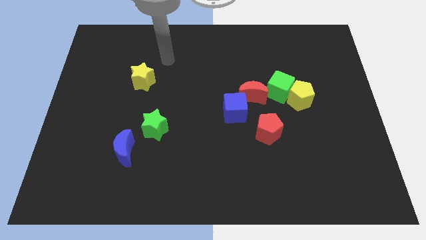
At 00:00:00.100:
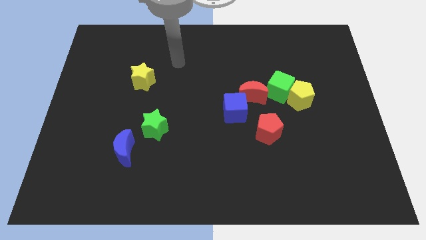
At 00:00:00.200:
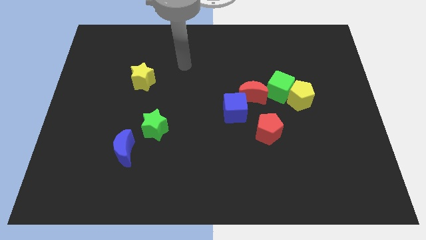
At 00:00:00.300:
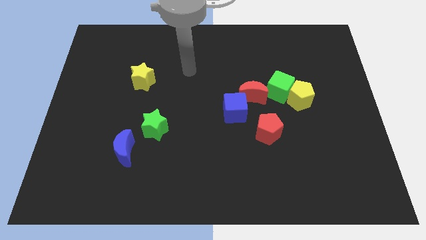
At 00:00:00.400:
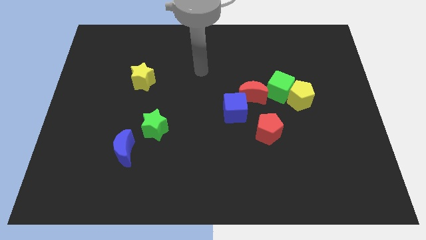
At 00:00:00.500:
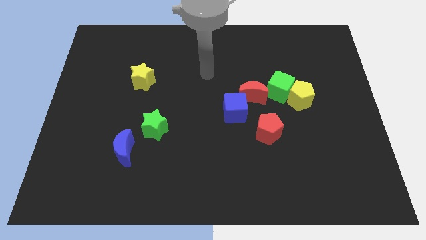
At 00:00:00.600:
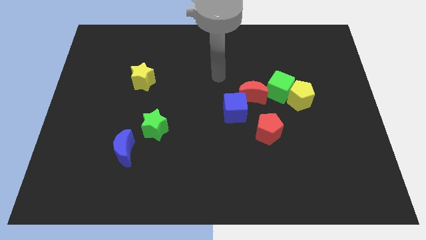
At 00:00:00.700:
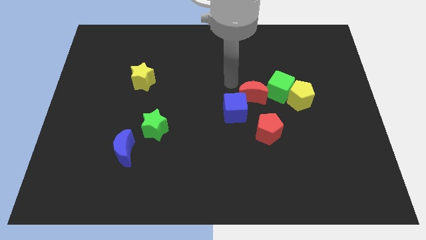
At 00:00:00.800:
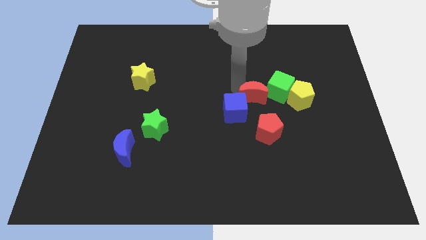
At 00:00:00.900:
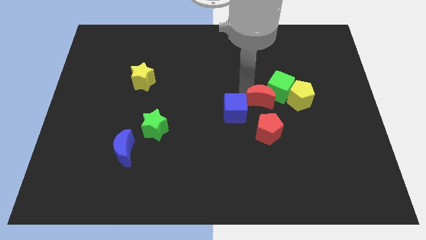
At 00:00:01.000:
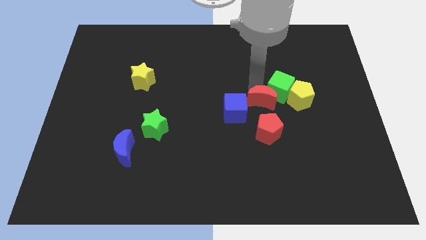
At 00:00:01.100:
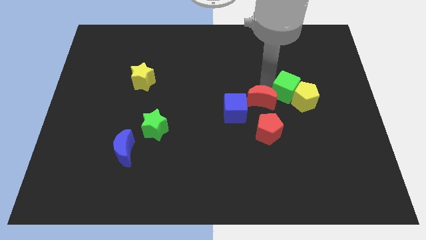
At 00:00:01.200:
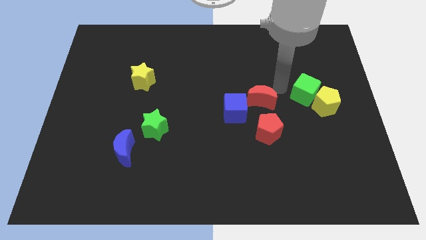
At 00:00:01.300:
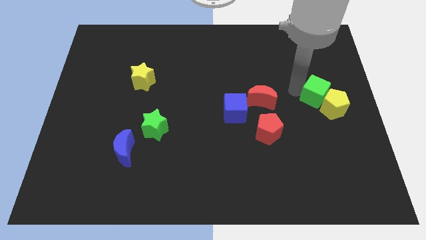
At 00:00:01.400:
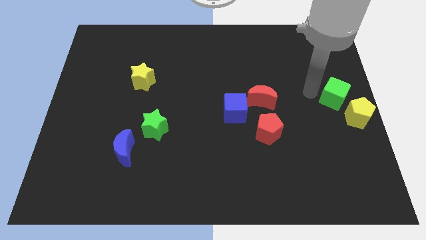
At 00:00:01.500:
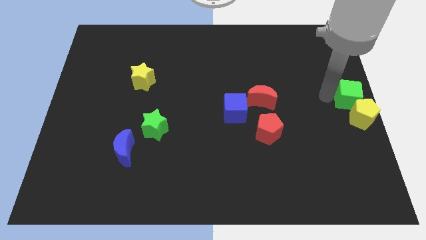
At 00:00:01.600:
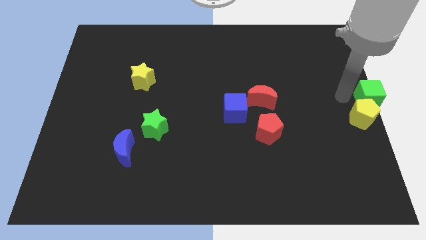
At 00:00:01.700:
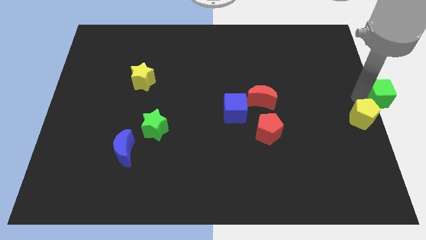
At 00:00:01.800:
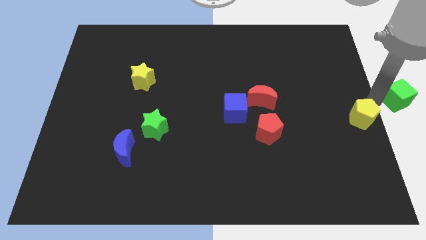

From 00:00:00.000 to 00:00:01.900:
separate the yellow pentagon from the green cube

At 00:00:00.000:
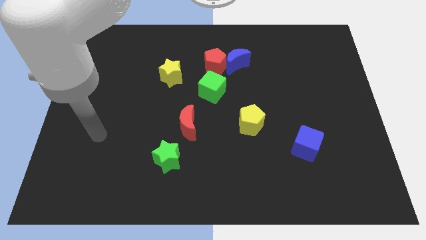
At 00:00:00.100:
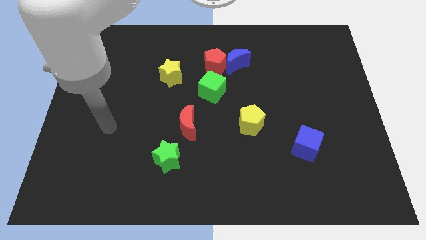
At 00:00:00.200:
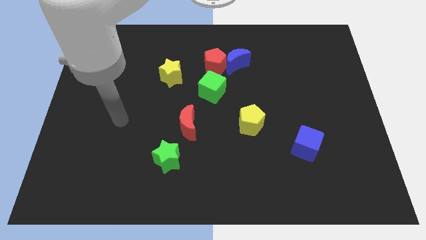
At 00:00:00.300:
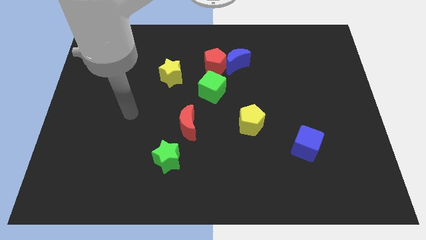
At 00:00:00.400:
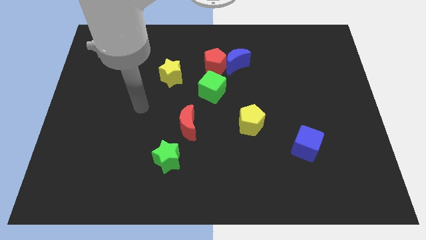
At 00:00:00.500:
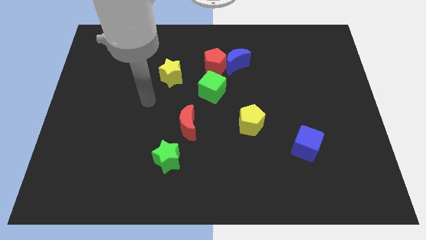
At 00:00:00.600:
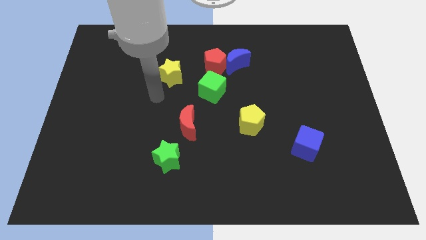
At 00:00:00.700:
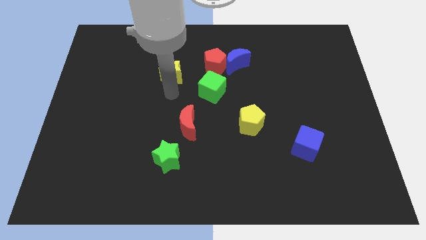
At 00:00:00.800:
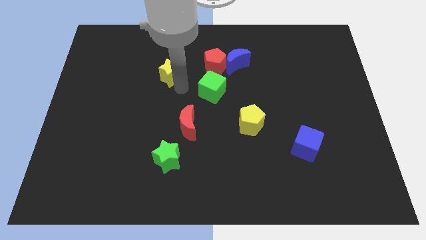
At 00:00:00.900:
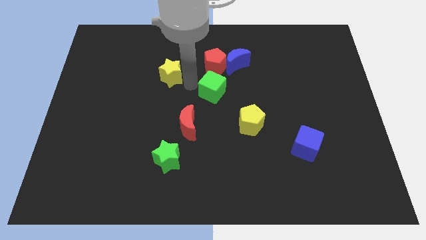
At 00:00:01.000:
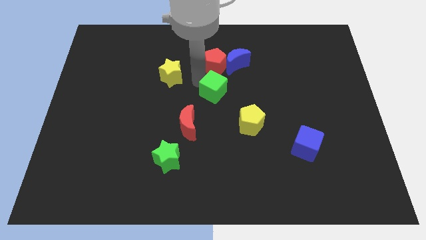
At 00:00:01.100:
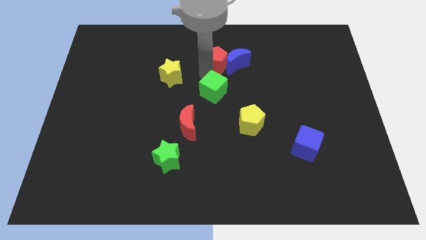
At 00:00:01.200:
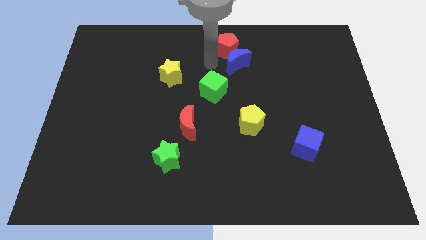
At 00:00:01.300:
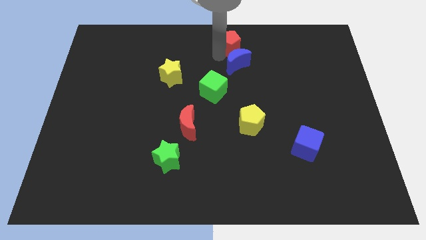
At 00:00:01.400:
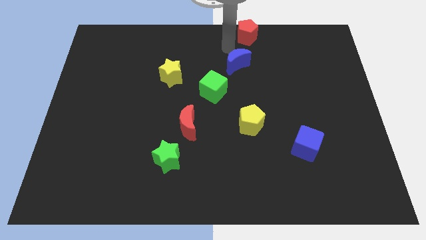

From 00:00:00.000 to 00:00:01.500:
separate the blue moon from the red pentagon

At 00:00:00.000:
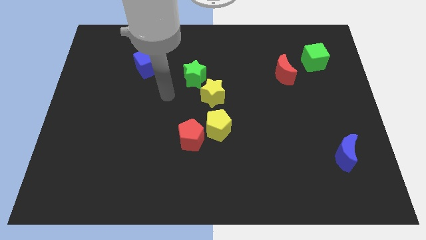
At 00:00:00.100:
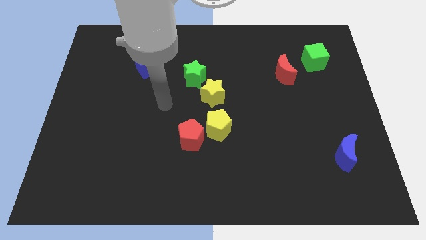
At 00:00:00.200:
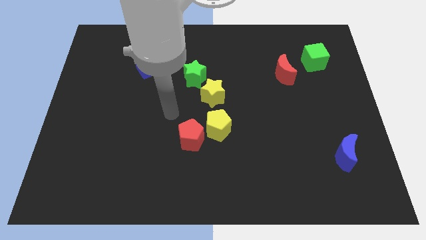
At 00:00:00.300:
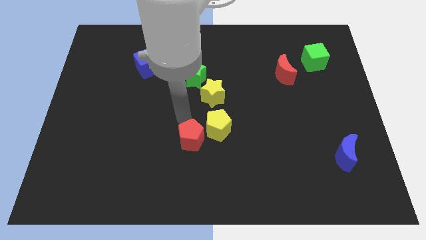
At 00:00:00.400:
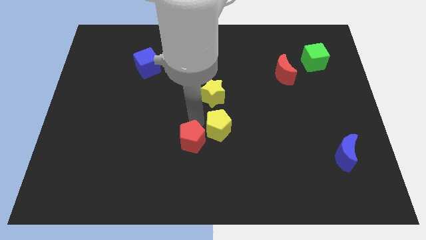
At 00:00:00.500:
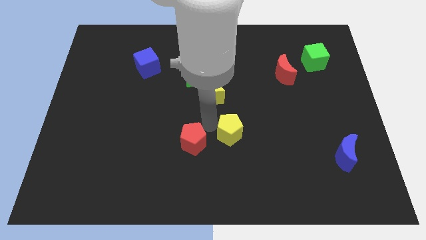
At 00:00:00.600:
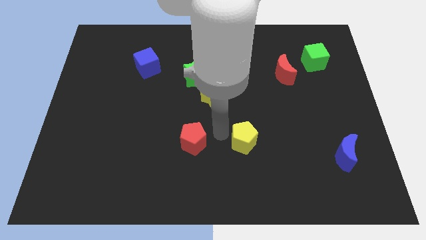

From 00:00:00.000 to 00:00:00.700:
separate the red pentagon from the yellow pentagon

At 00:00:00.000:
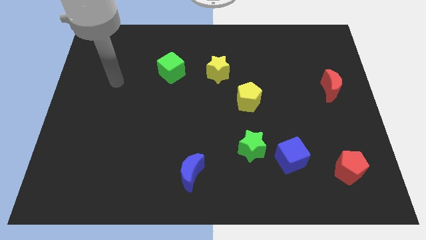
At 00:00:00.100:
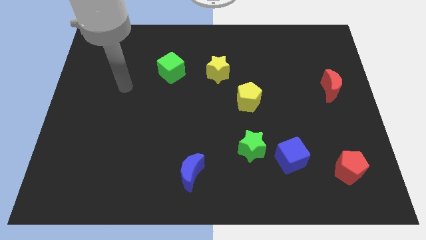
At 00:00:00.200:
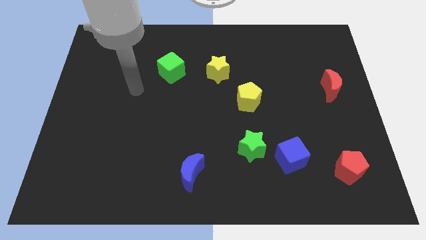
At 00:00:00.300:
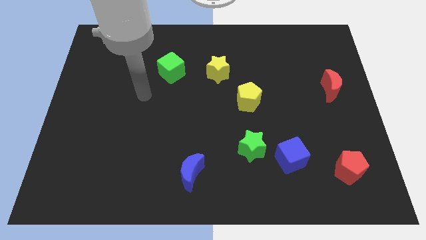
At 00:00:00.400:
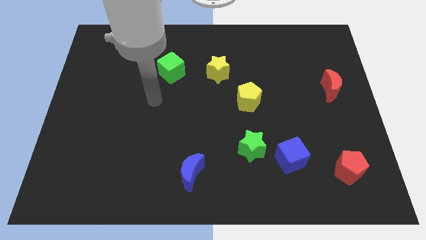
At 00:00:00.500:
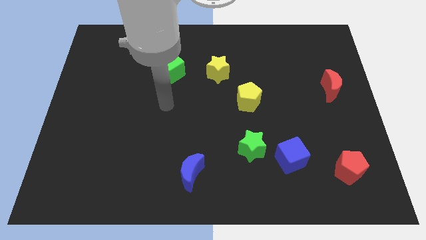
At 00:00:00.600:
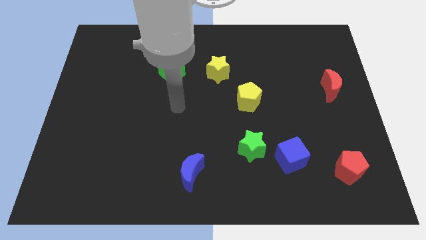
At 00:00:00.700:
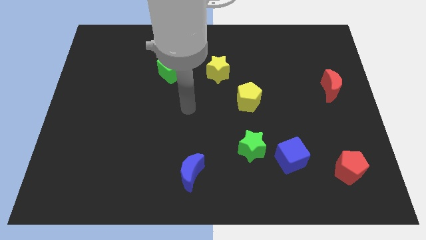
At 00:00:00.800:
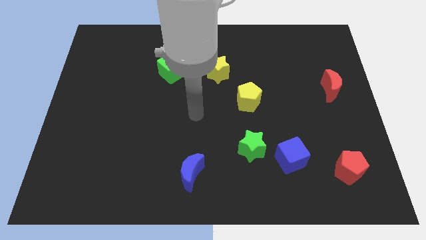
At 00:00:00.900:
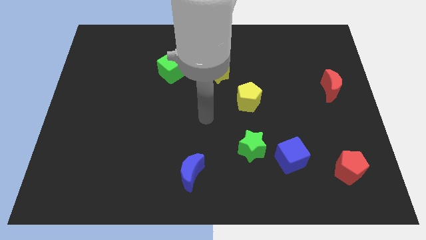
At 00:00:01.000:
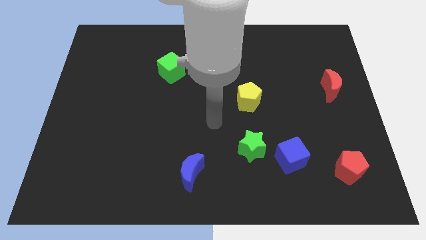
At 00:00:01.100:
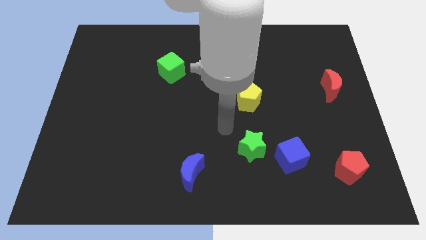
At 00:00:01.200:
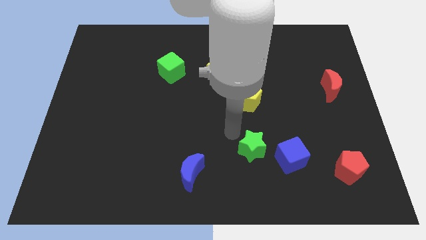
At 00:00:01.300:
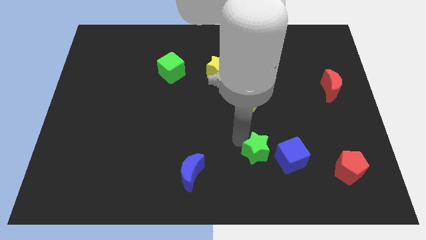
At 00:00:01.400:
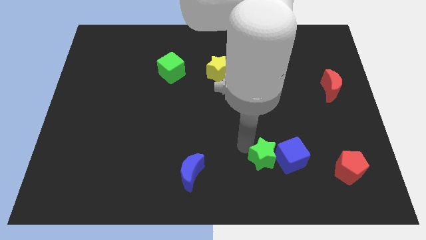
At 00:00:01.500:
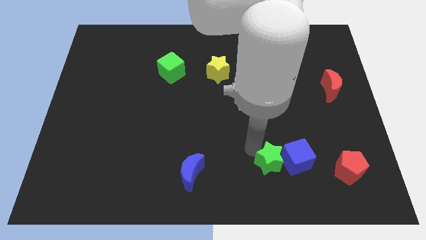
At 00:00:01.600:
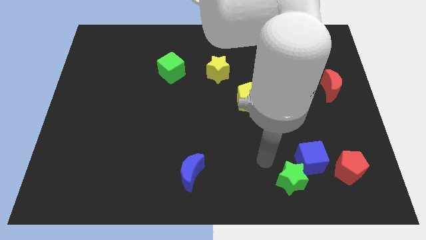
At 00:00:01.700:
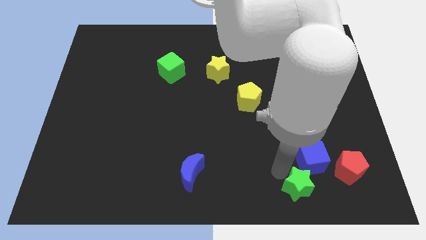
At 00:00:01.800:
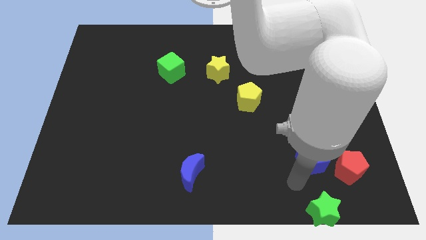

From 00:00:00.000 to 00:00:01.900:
separate the blue cube from the green star

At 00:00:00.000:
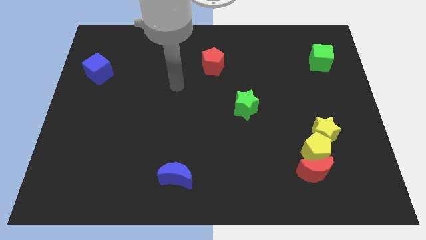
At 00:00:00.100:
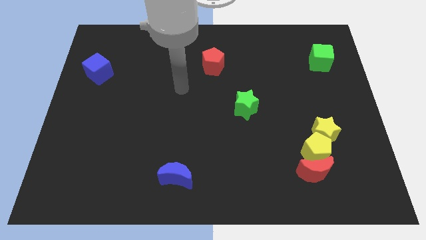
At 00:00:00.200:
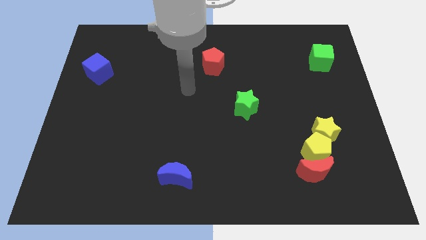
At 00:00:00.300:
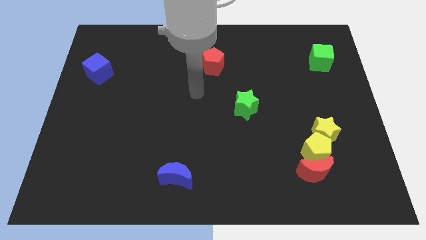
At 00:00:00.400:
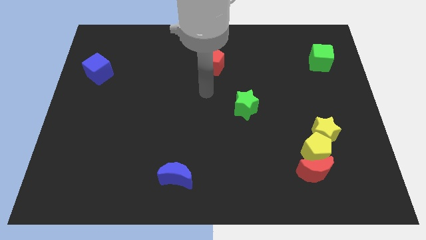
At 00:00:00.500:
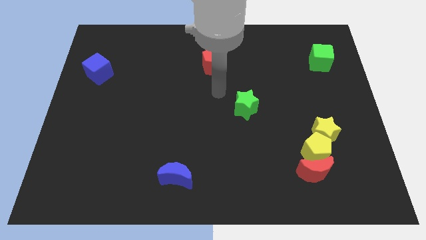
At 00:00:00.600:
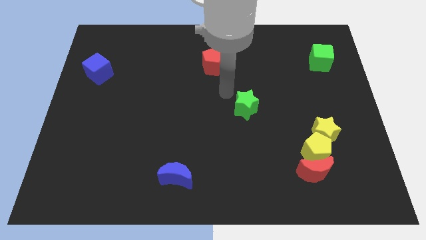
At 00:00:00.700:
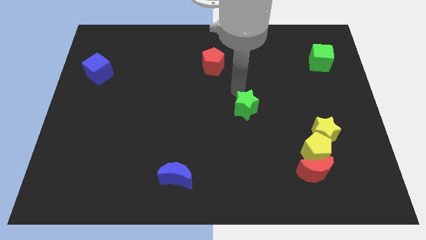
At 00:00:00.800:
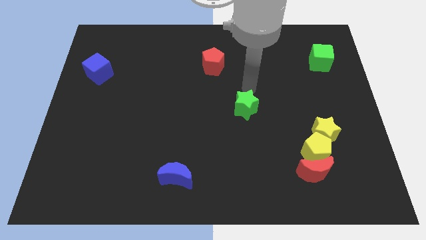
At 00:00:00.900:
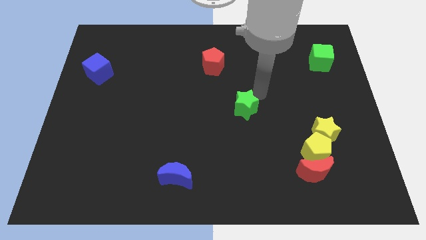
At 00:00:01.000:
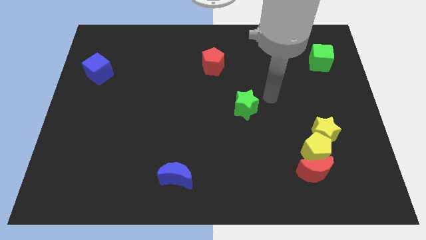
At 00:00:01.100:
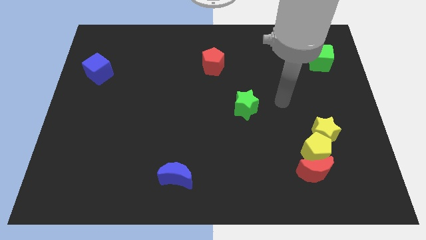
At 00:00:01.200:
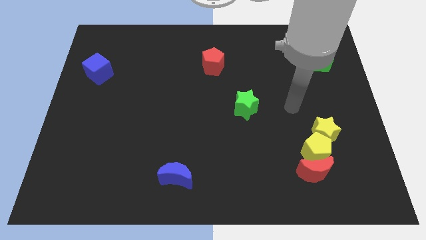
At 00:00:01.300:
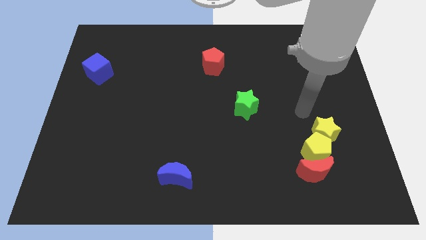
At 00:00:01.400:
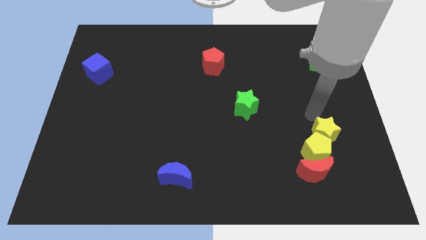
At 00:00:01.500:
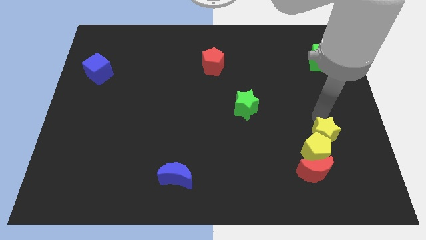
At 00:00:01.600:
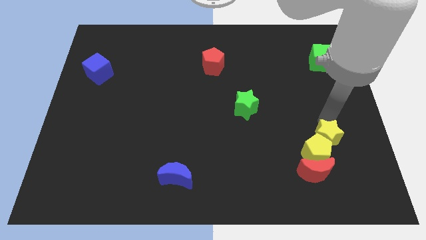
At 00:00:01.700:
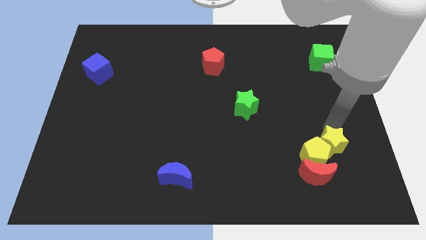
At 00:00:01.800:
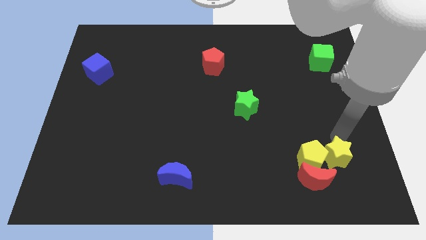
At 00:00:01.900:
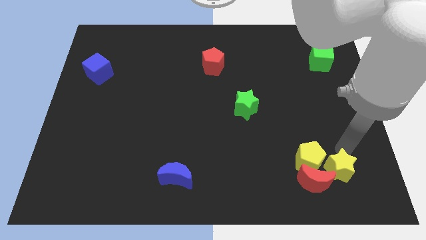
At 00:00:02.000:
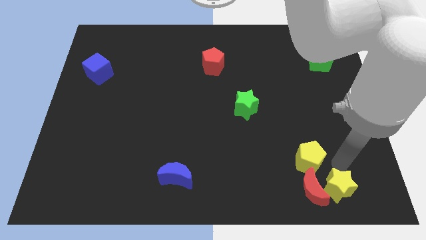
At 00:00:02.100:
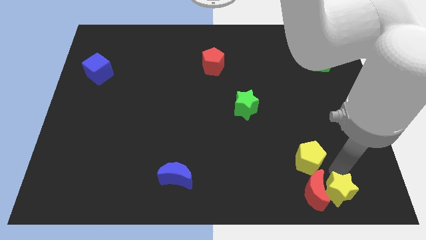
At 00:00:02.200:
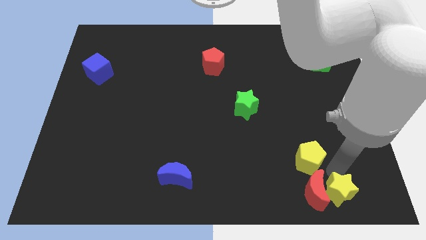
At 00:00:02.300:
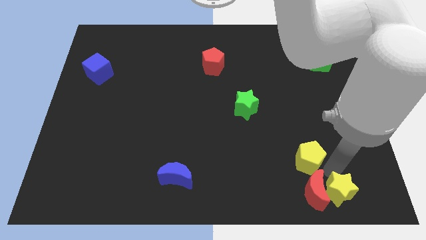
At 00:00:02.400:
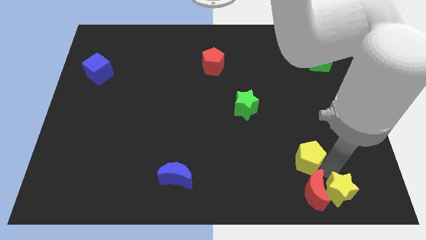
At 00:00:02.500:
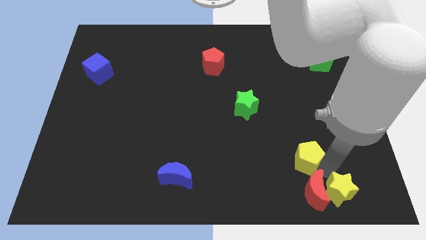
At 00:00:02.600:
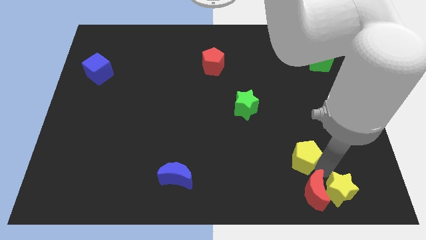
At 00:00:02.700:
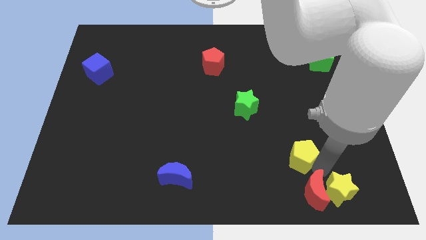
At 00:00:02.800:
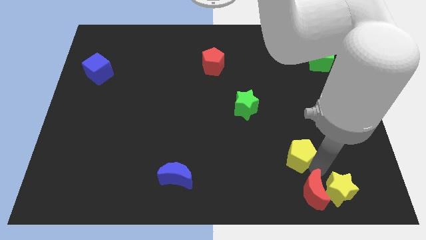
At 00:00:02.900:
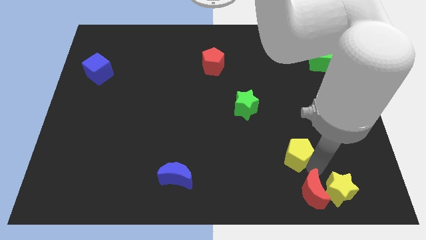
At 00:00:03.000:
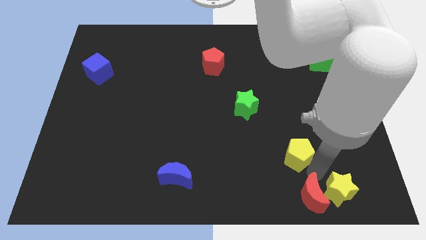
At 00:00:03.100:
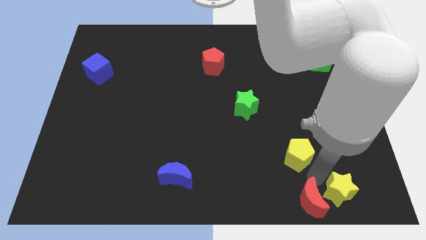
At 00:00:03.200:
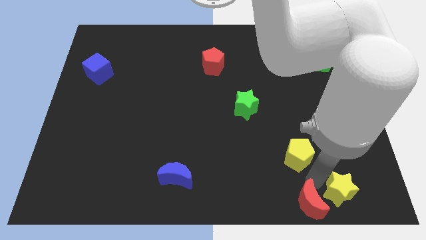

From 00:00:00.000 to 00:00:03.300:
pull the yellow pentagon apart from the red moon and yellow star
